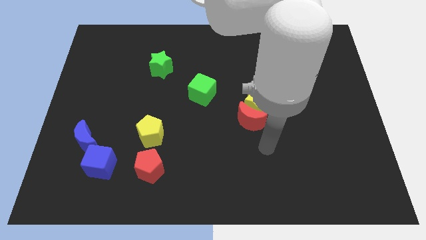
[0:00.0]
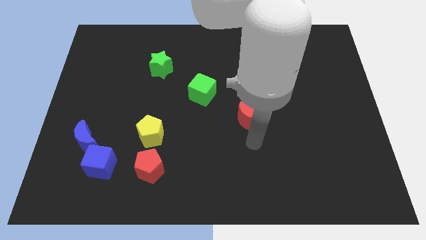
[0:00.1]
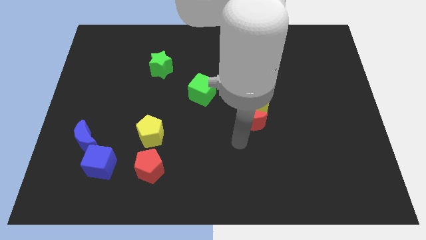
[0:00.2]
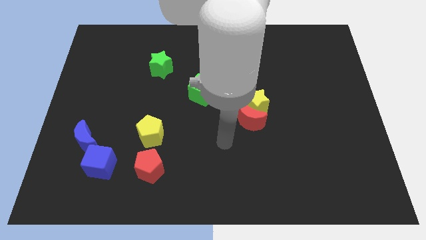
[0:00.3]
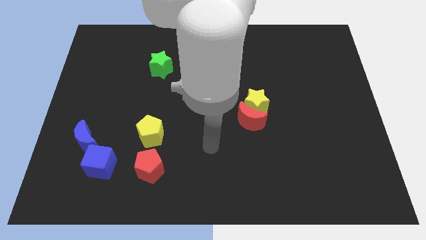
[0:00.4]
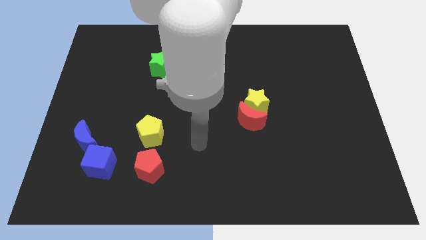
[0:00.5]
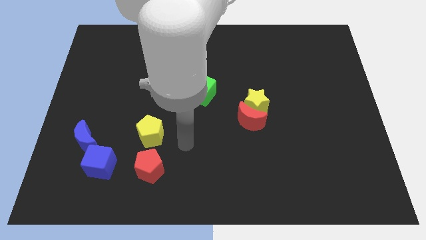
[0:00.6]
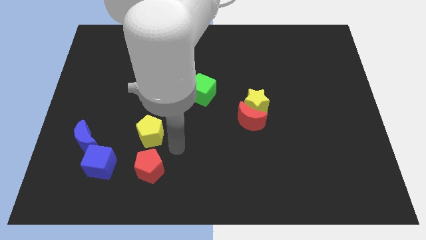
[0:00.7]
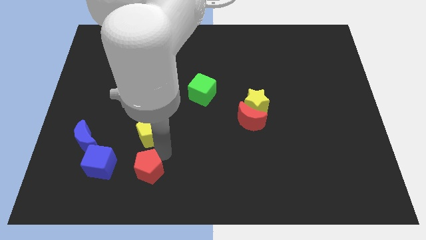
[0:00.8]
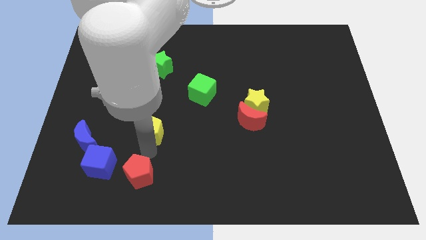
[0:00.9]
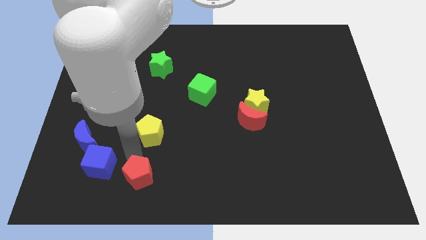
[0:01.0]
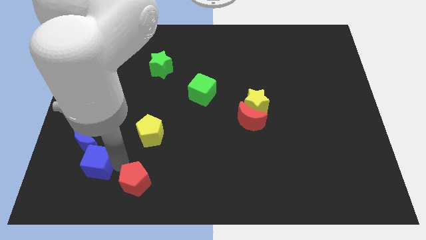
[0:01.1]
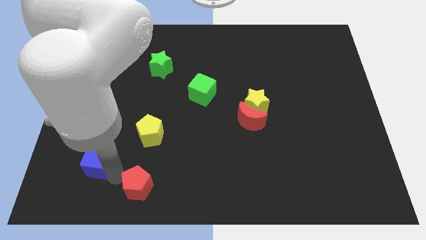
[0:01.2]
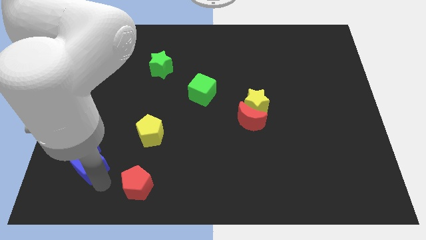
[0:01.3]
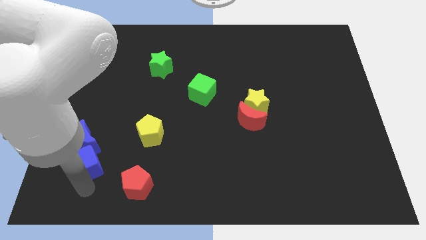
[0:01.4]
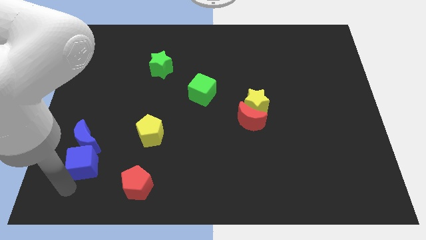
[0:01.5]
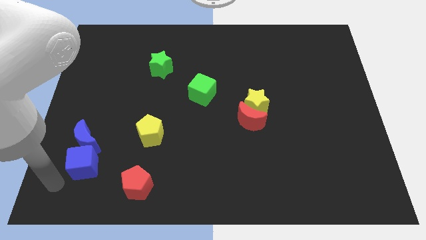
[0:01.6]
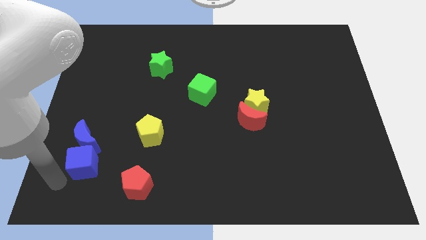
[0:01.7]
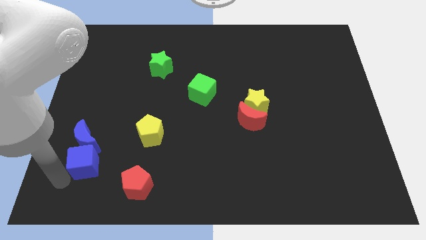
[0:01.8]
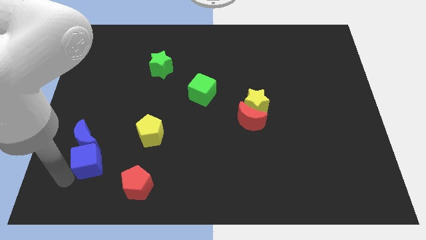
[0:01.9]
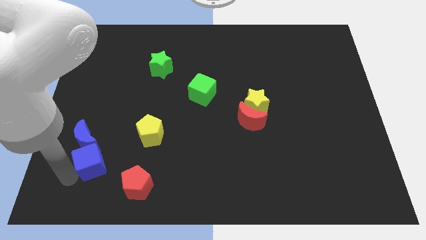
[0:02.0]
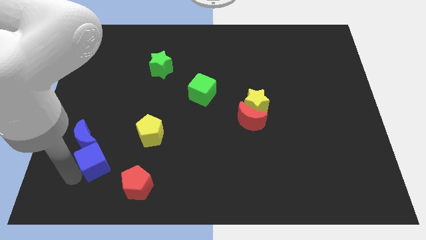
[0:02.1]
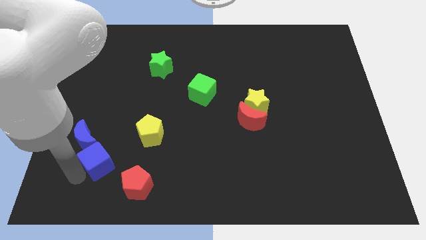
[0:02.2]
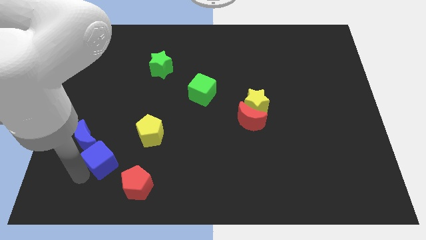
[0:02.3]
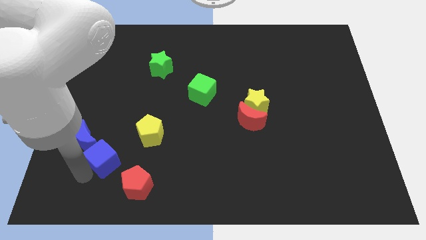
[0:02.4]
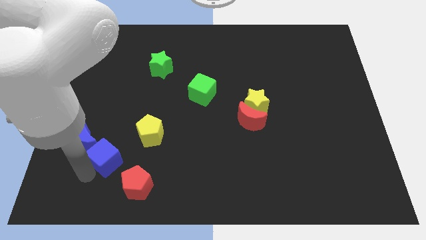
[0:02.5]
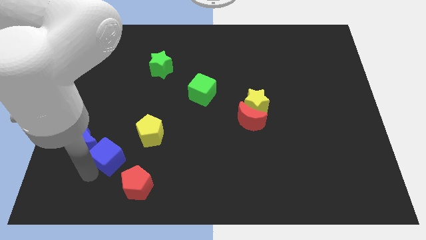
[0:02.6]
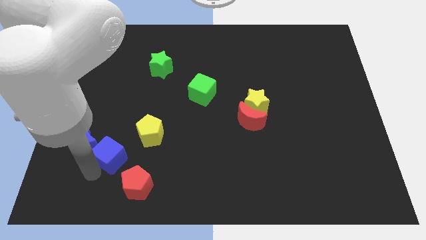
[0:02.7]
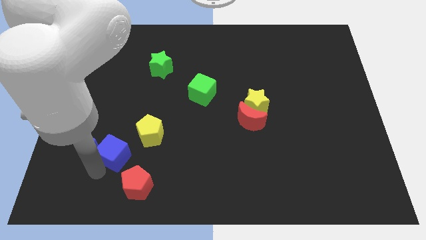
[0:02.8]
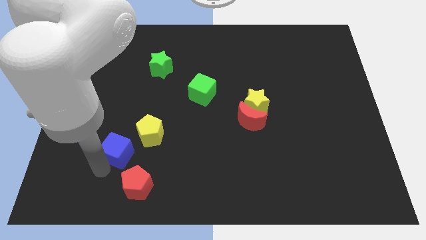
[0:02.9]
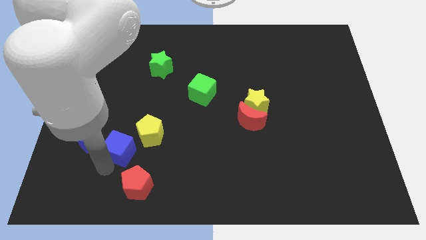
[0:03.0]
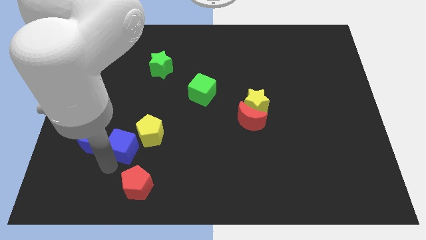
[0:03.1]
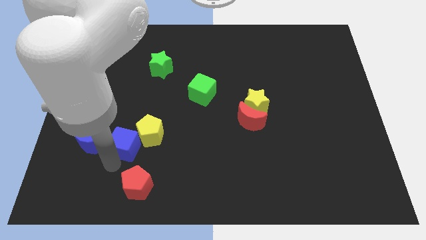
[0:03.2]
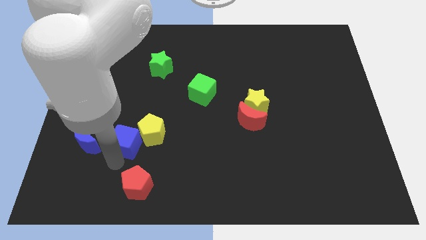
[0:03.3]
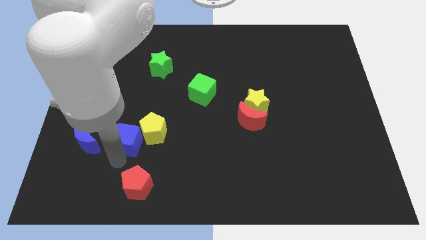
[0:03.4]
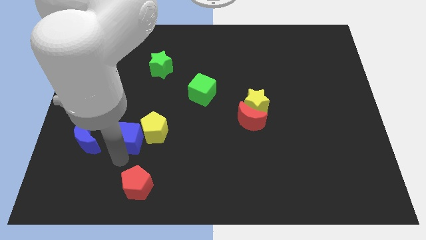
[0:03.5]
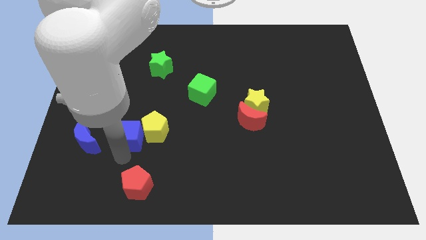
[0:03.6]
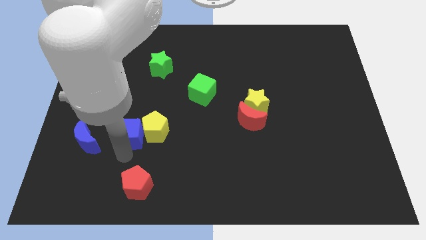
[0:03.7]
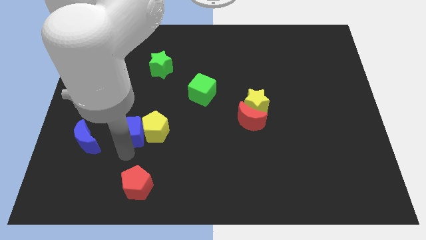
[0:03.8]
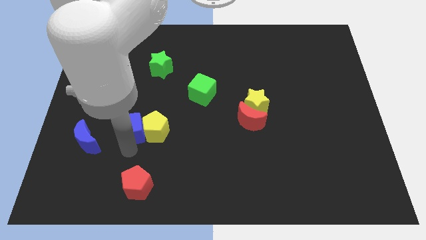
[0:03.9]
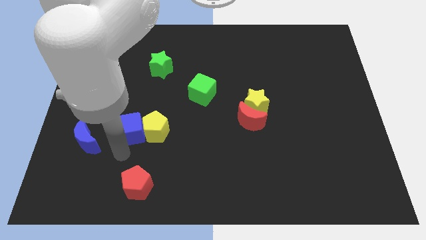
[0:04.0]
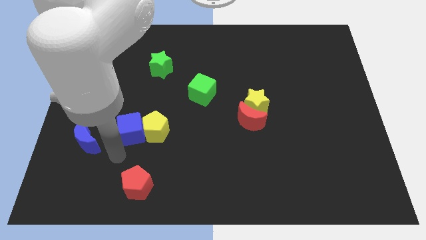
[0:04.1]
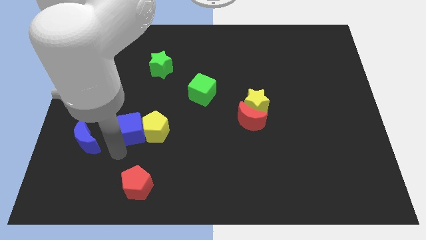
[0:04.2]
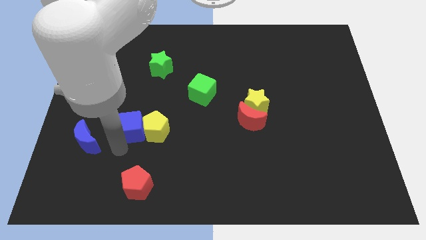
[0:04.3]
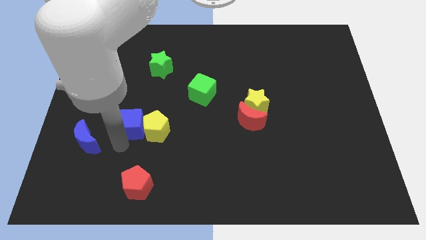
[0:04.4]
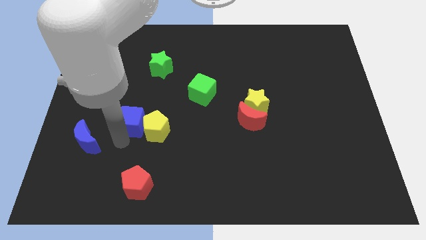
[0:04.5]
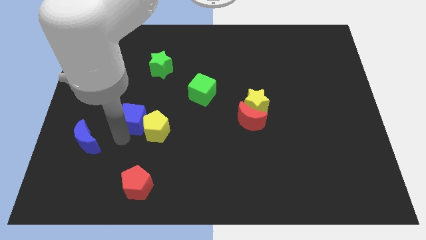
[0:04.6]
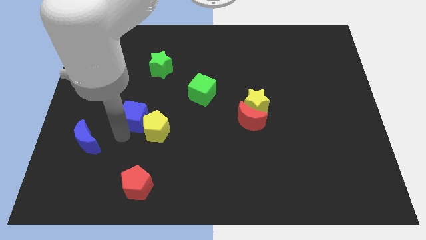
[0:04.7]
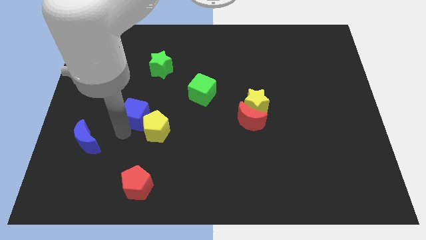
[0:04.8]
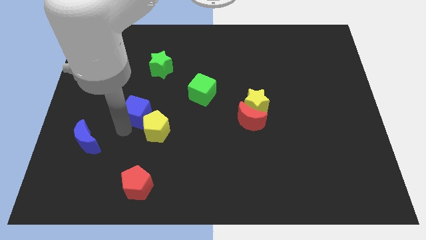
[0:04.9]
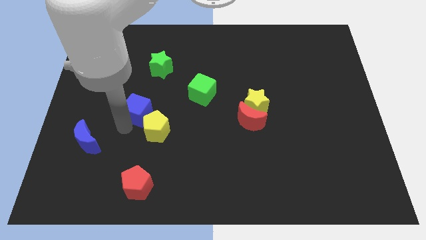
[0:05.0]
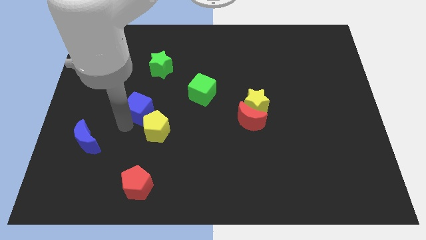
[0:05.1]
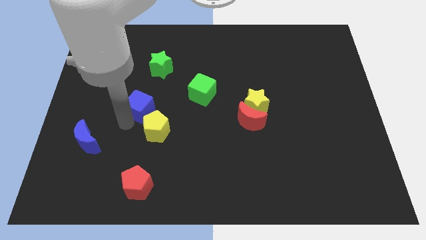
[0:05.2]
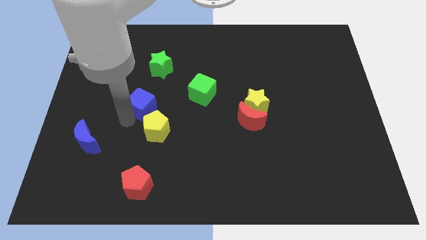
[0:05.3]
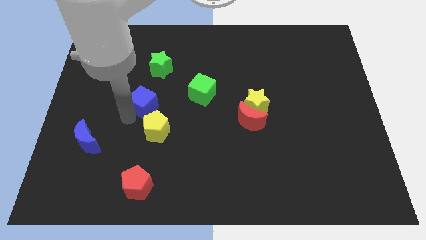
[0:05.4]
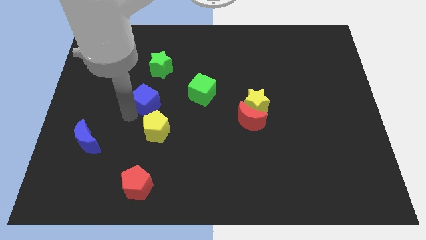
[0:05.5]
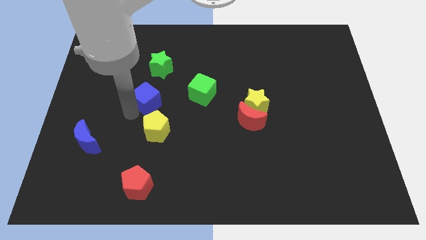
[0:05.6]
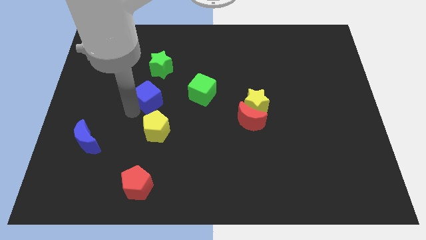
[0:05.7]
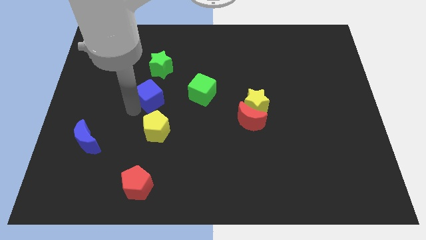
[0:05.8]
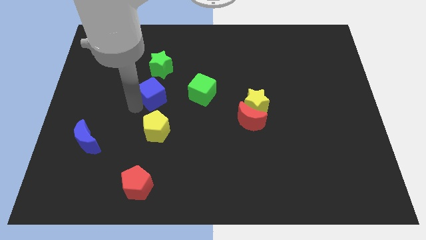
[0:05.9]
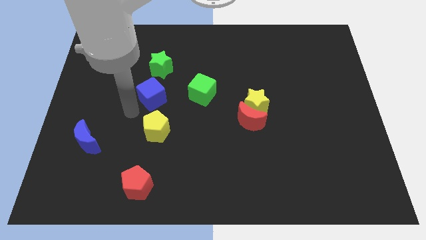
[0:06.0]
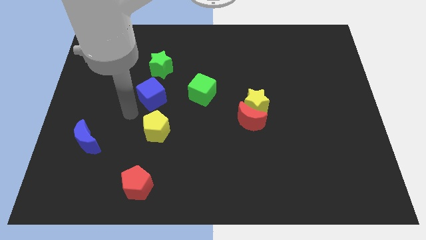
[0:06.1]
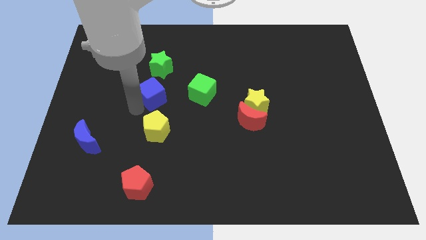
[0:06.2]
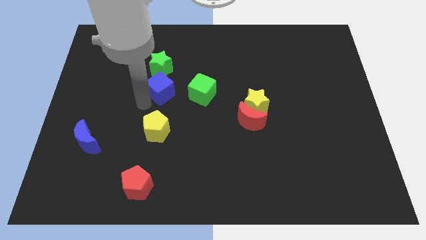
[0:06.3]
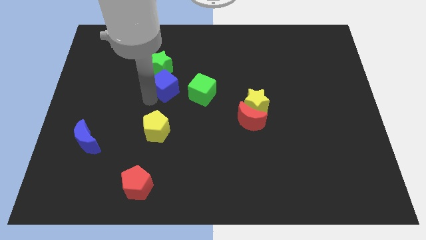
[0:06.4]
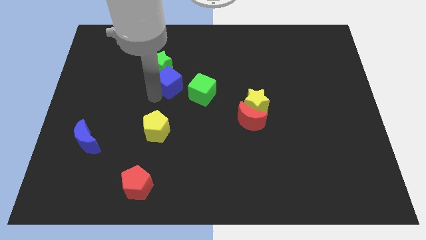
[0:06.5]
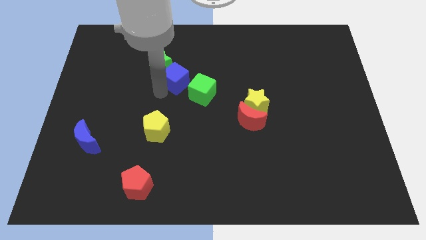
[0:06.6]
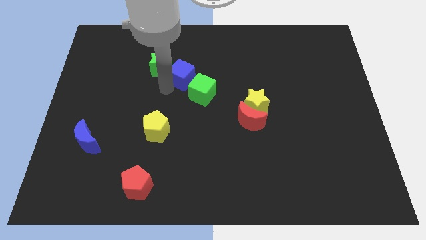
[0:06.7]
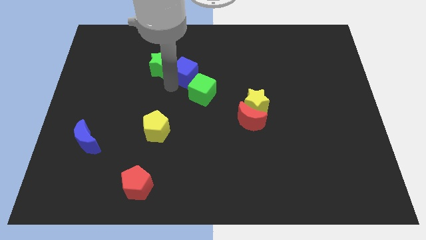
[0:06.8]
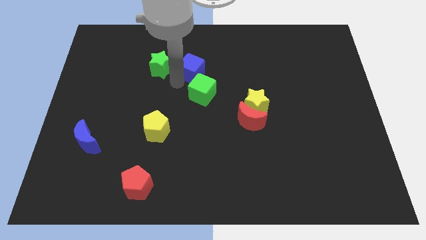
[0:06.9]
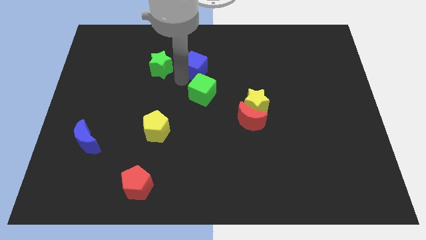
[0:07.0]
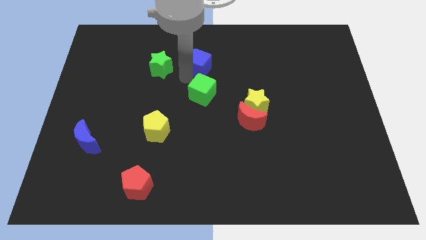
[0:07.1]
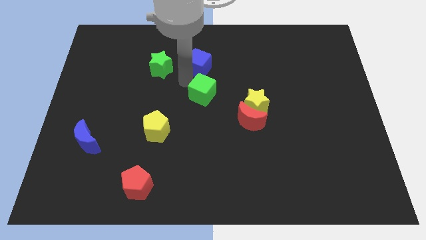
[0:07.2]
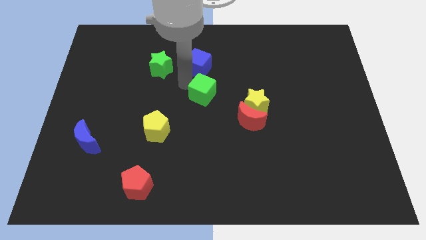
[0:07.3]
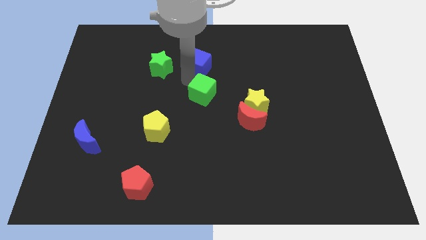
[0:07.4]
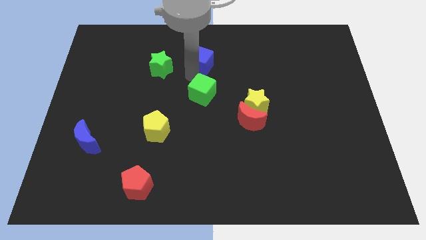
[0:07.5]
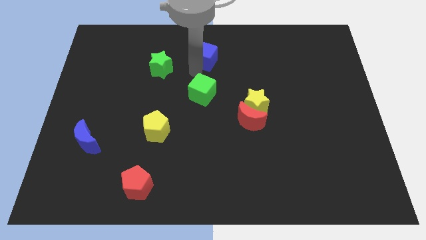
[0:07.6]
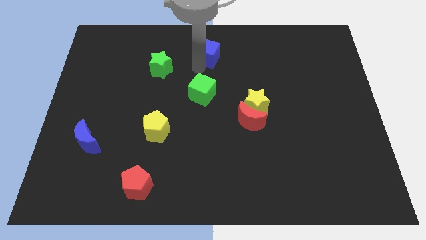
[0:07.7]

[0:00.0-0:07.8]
put the blue cube to the towards your base

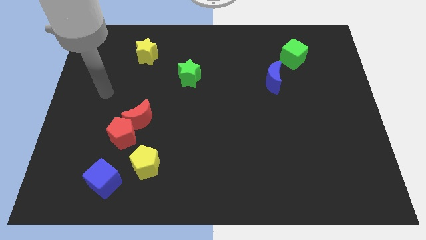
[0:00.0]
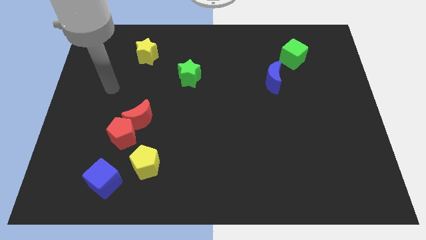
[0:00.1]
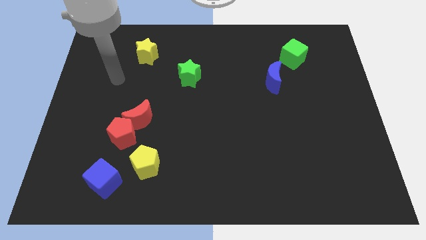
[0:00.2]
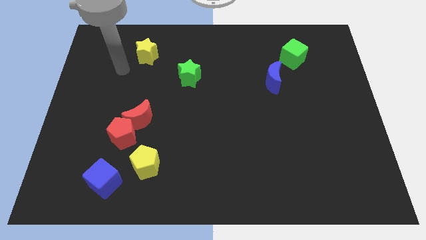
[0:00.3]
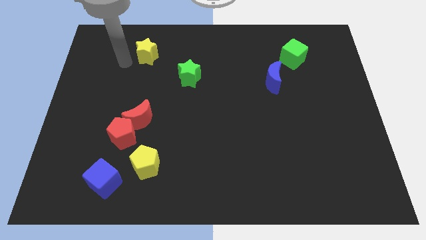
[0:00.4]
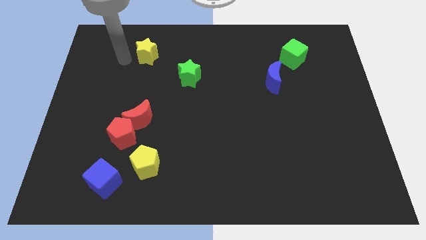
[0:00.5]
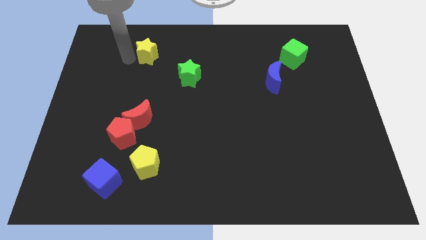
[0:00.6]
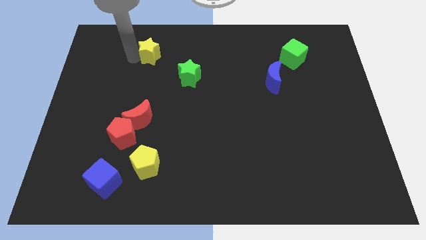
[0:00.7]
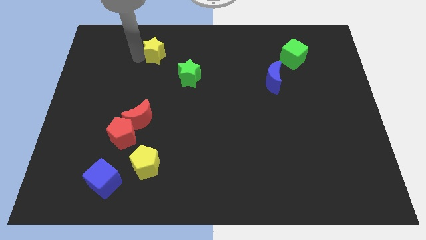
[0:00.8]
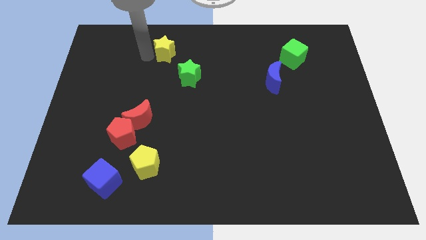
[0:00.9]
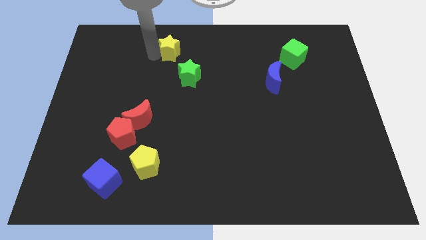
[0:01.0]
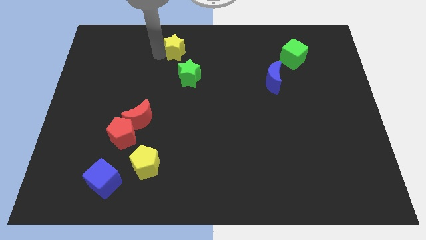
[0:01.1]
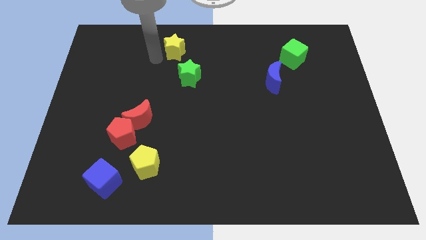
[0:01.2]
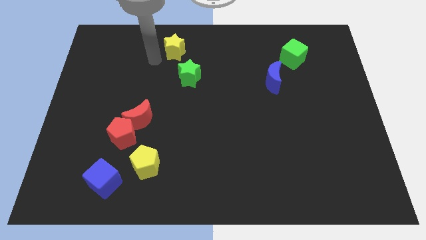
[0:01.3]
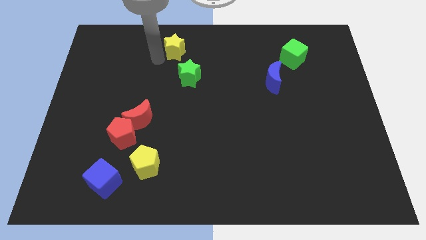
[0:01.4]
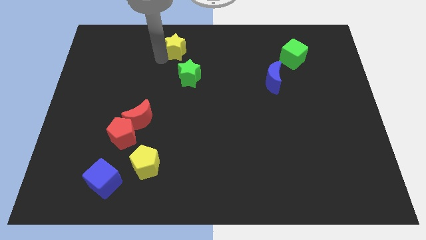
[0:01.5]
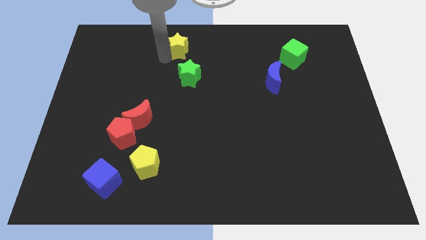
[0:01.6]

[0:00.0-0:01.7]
put the yellow star to the towards your base
